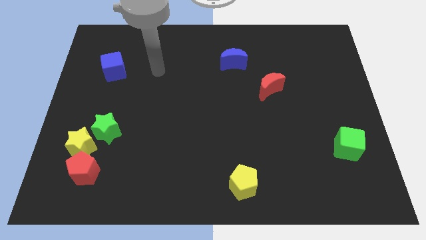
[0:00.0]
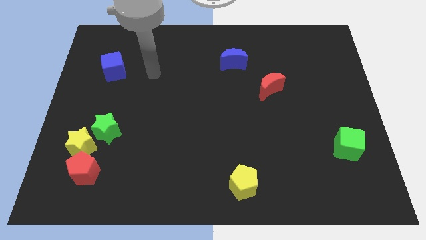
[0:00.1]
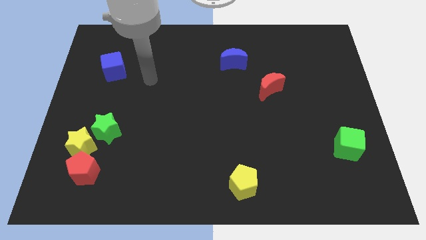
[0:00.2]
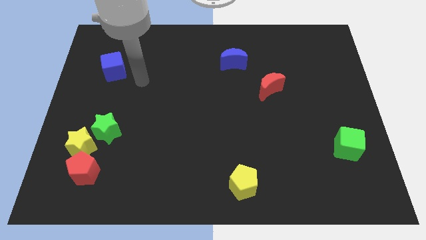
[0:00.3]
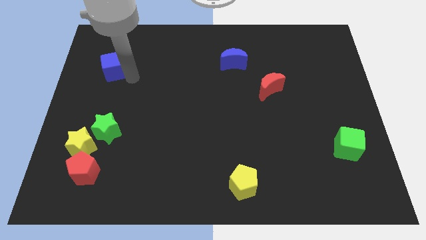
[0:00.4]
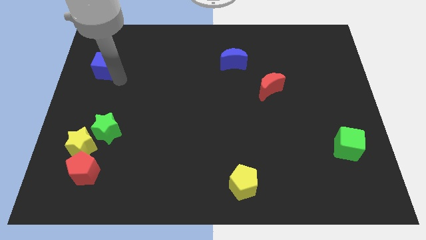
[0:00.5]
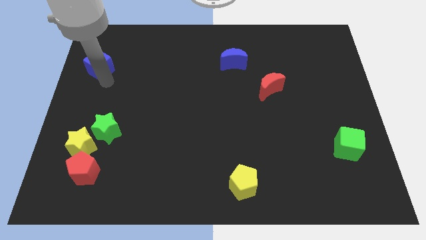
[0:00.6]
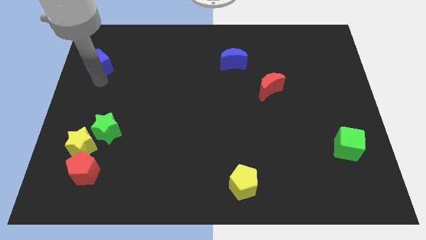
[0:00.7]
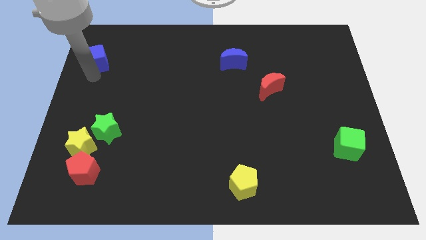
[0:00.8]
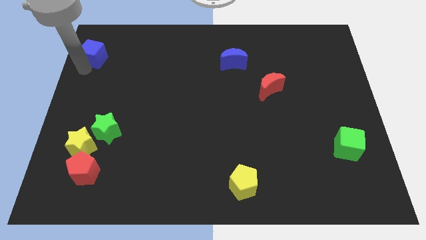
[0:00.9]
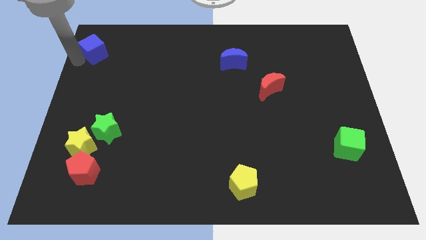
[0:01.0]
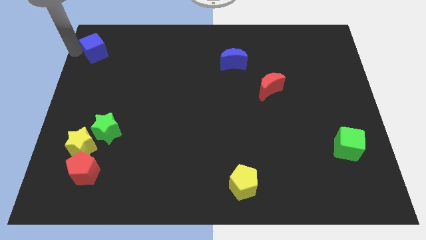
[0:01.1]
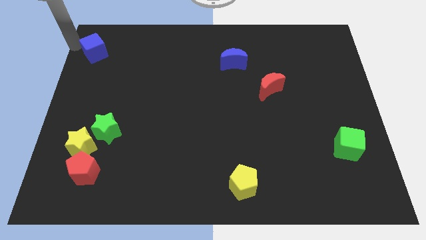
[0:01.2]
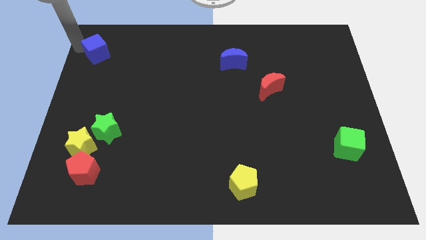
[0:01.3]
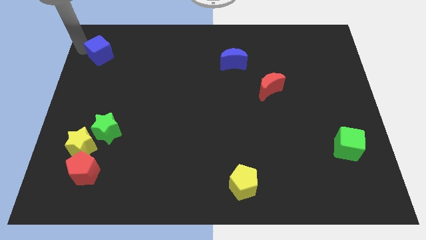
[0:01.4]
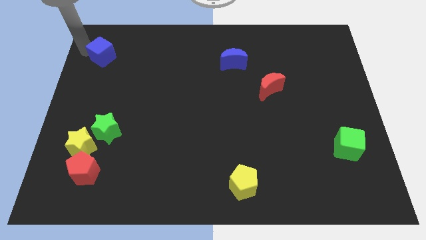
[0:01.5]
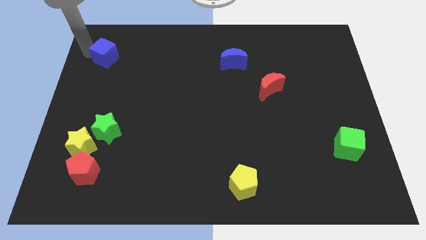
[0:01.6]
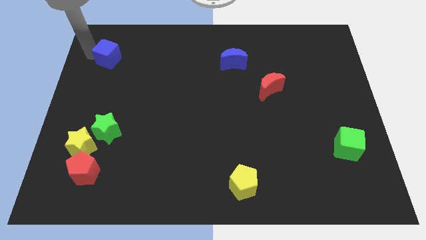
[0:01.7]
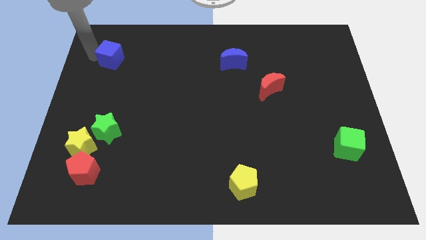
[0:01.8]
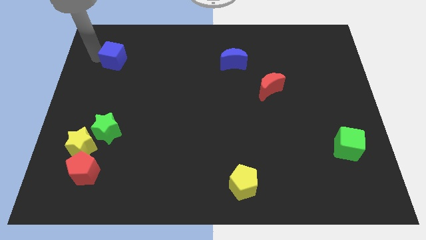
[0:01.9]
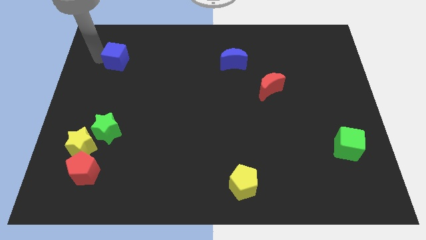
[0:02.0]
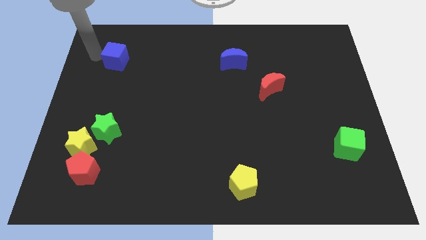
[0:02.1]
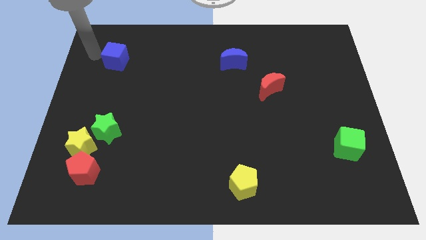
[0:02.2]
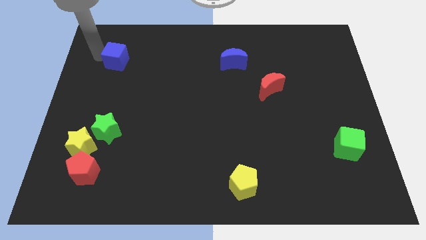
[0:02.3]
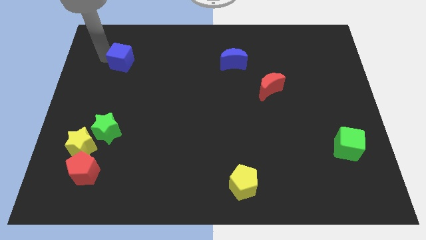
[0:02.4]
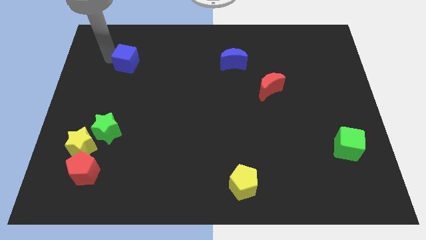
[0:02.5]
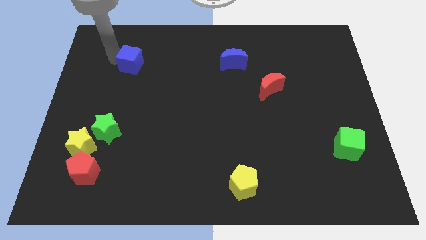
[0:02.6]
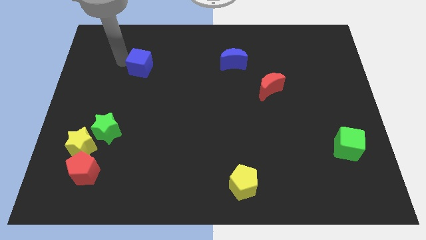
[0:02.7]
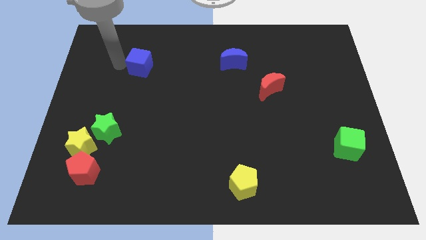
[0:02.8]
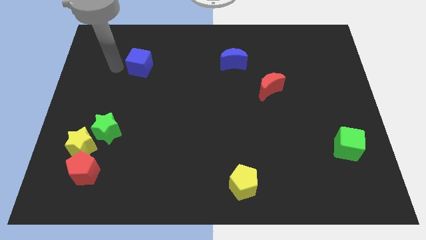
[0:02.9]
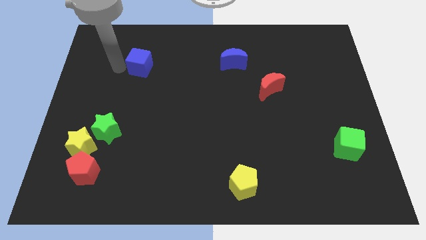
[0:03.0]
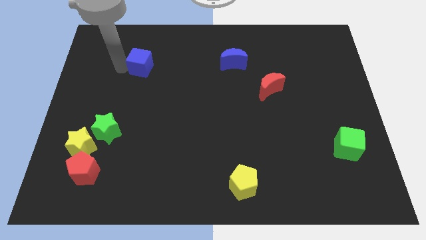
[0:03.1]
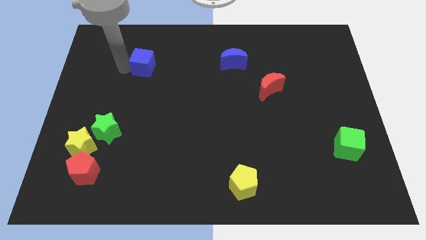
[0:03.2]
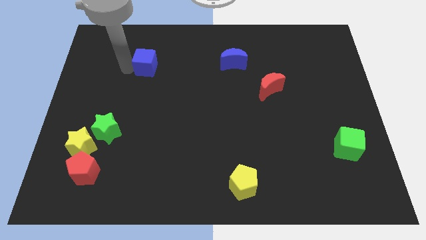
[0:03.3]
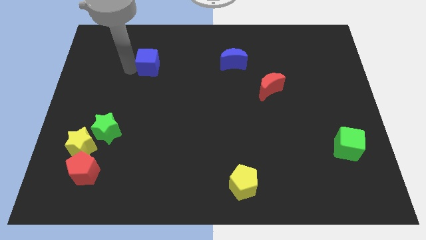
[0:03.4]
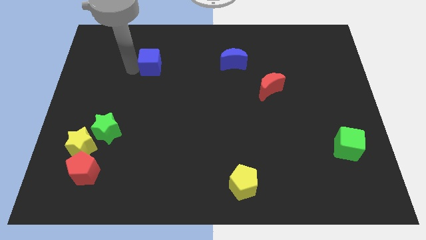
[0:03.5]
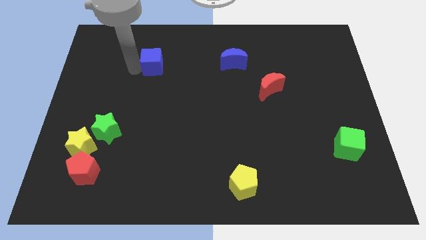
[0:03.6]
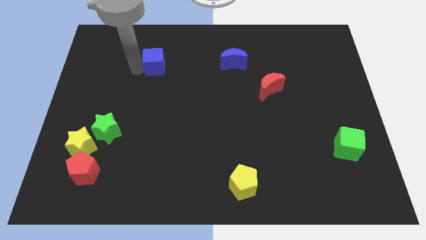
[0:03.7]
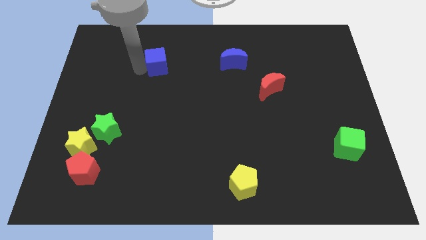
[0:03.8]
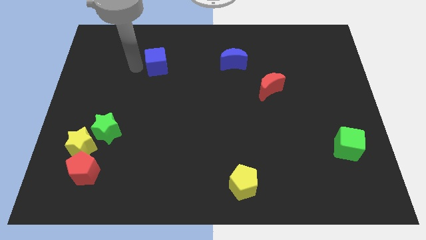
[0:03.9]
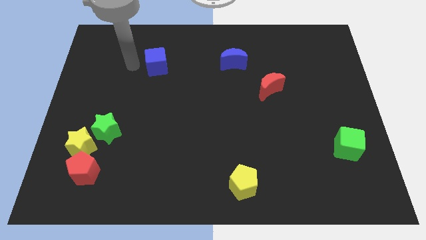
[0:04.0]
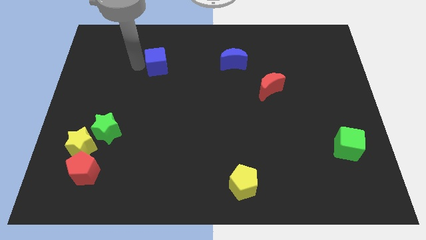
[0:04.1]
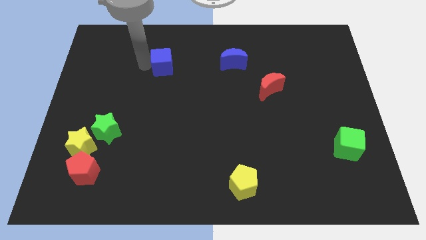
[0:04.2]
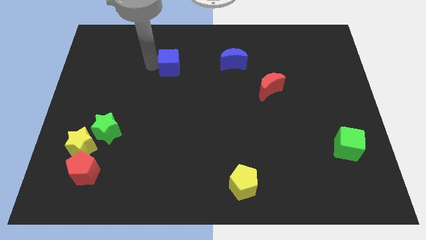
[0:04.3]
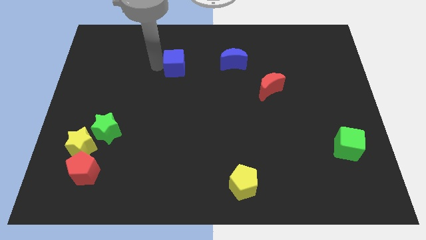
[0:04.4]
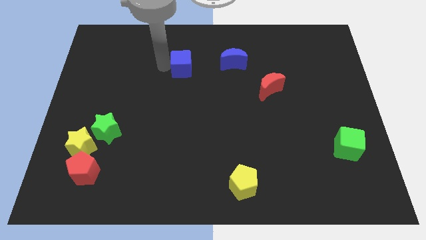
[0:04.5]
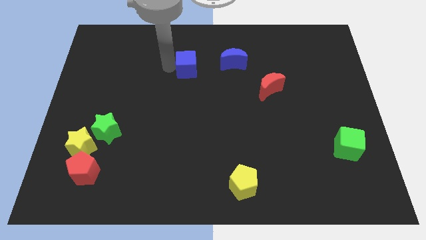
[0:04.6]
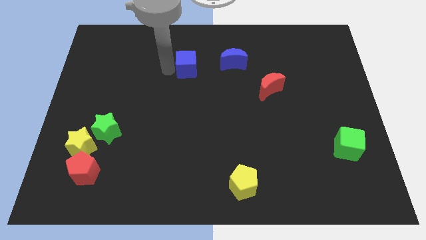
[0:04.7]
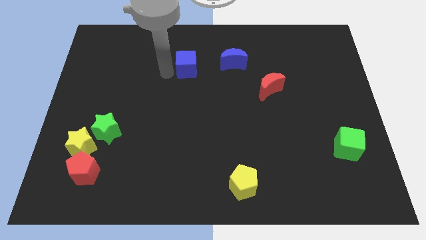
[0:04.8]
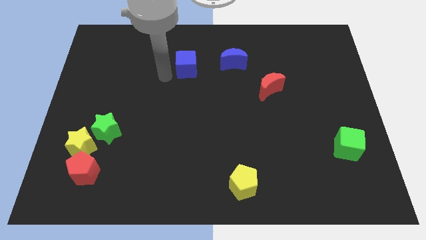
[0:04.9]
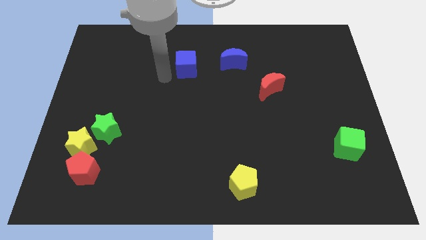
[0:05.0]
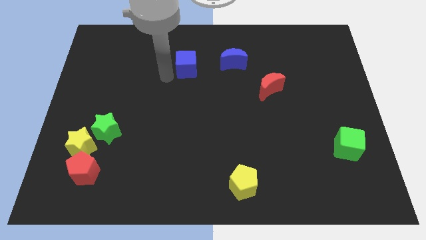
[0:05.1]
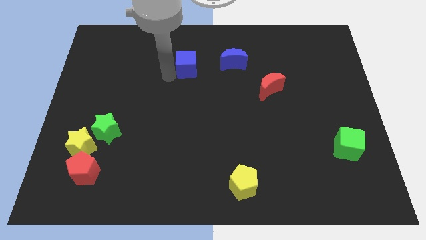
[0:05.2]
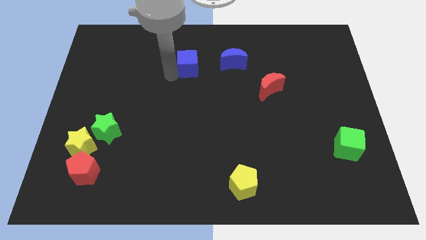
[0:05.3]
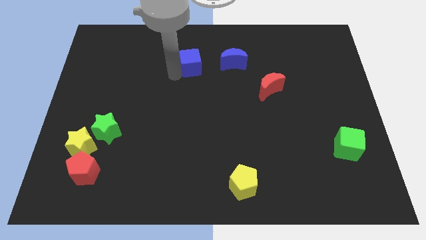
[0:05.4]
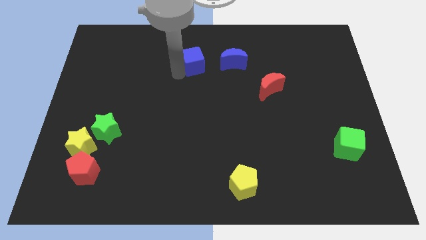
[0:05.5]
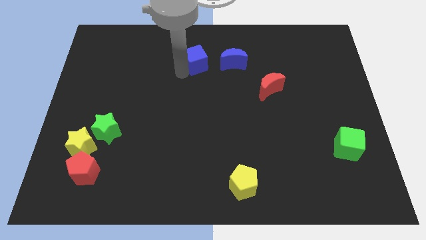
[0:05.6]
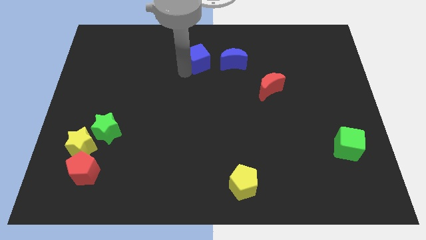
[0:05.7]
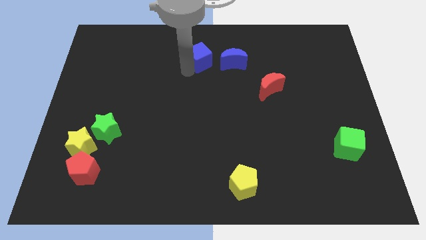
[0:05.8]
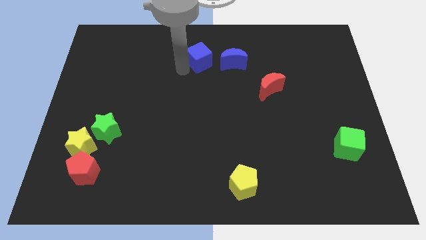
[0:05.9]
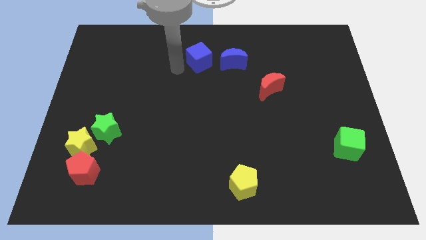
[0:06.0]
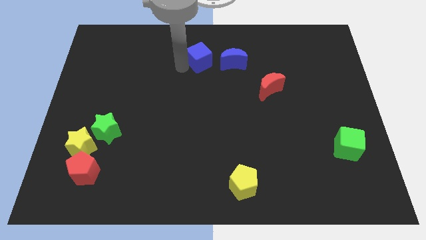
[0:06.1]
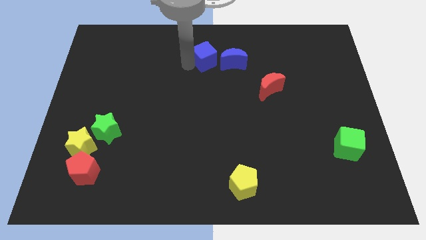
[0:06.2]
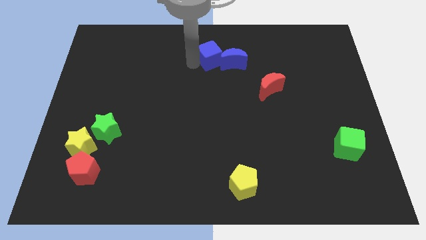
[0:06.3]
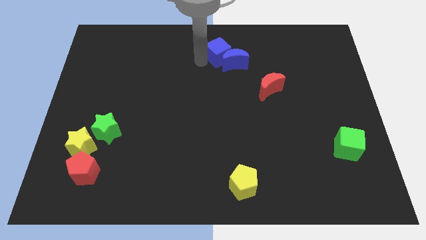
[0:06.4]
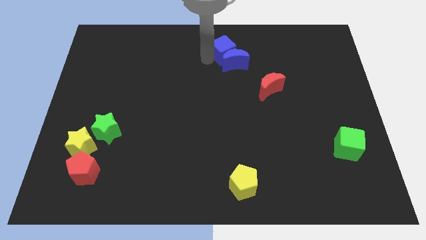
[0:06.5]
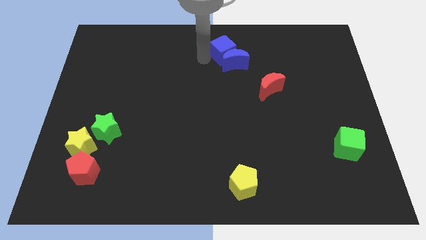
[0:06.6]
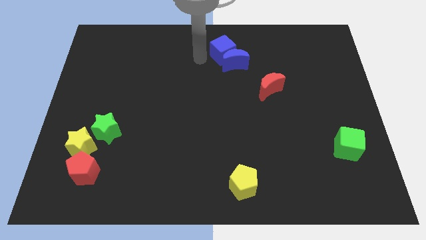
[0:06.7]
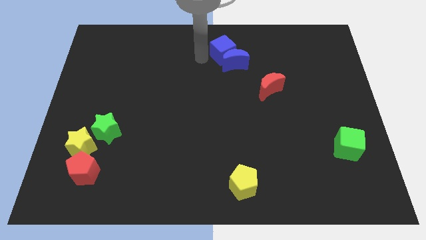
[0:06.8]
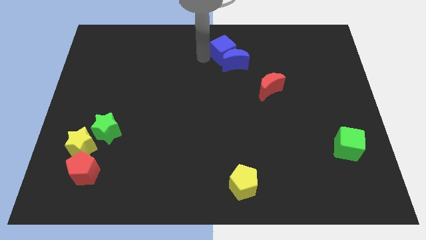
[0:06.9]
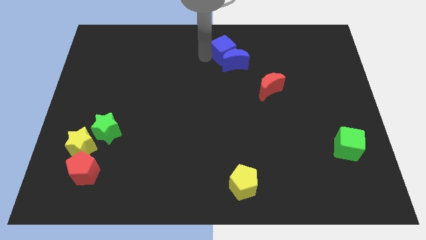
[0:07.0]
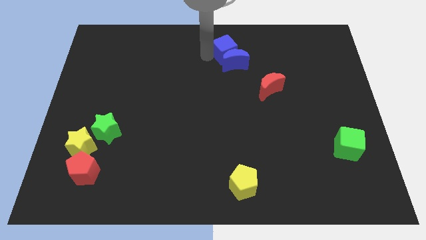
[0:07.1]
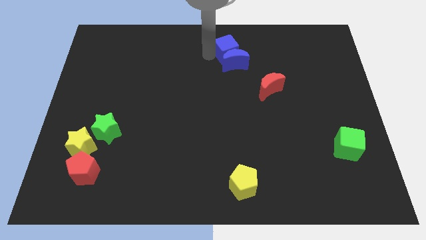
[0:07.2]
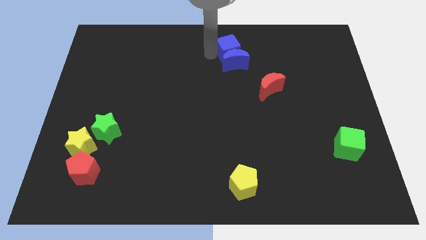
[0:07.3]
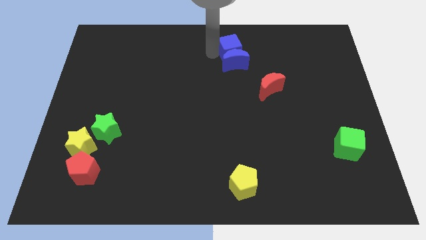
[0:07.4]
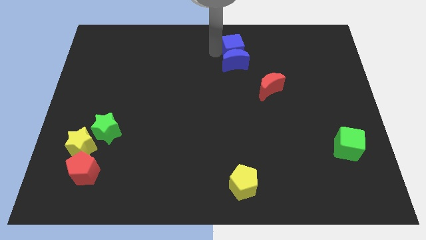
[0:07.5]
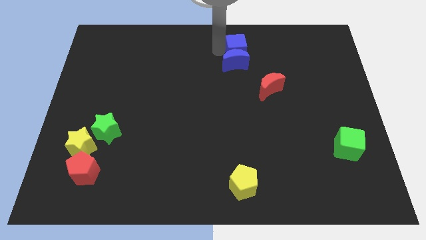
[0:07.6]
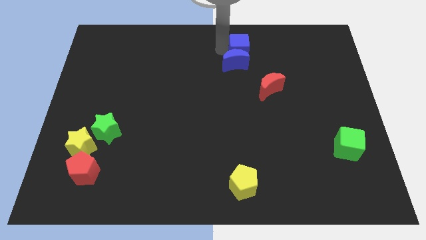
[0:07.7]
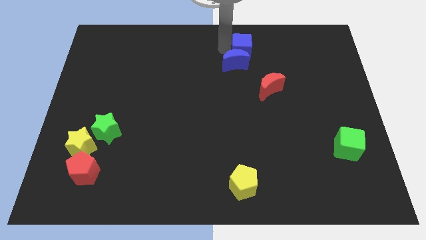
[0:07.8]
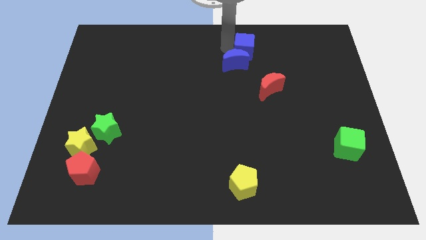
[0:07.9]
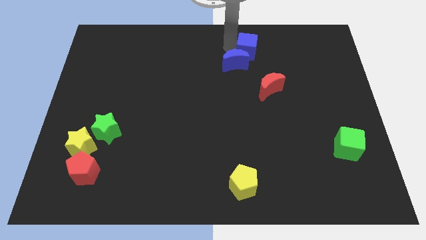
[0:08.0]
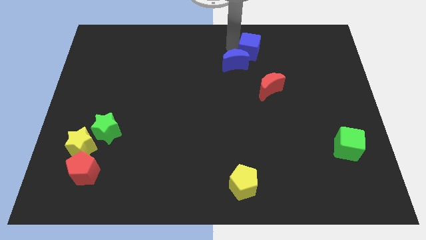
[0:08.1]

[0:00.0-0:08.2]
put the blue cube above the red moon
